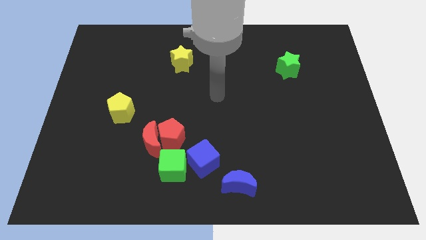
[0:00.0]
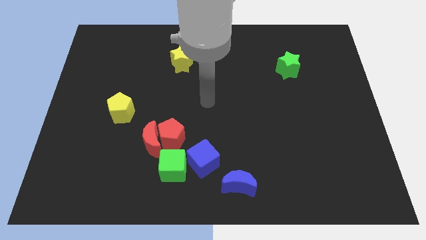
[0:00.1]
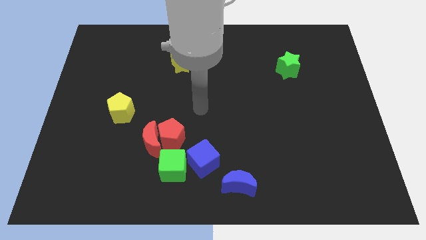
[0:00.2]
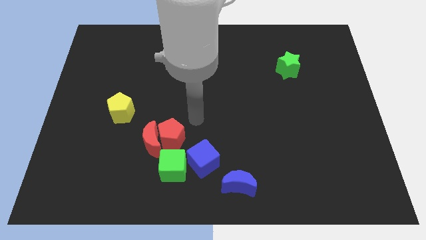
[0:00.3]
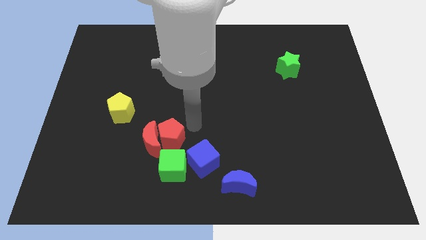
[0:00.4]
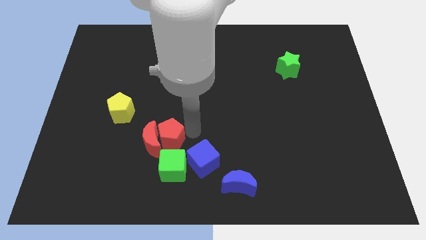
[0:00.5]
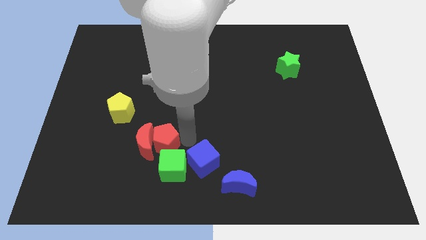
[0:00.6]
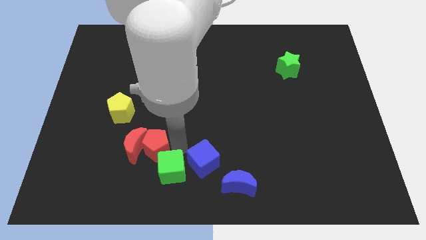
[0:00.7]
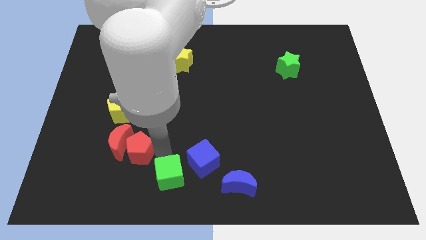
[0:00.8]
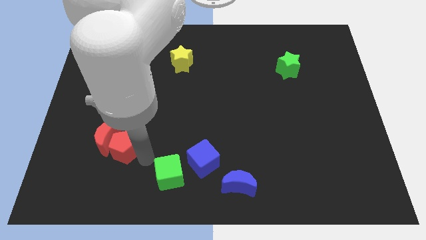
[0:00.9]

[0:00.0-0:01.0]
separate the red moon from the red pentagon and green cube

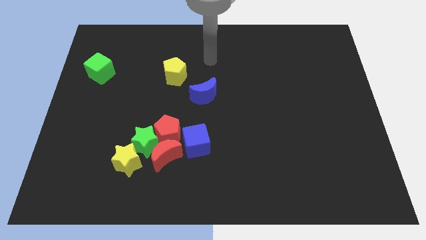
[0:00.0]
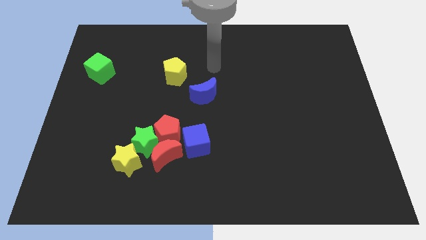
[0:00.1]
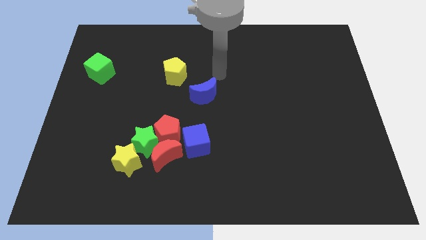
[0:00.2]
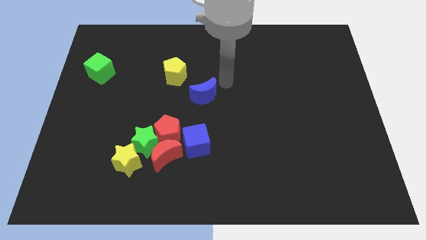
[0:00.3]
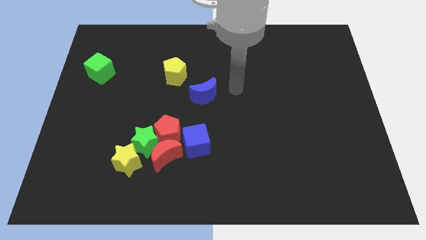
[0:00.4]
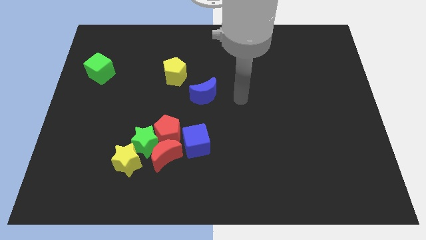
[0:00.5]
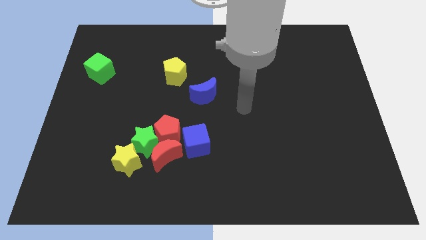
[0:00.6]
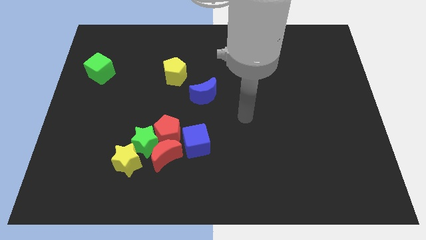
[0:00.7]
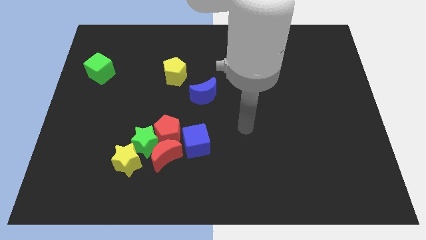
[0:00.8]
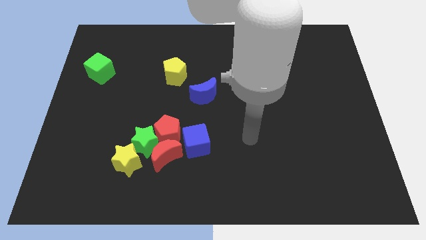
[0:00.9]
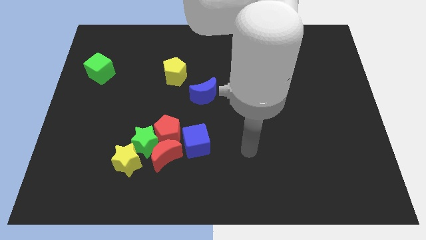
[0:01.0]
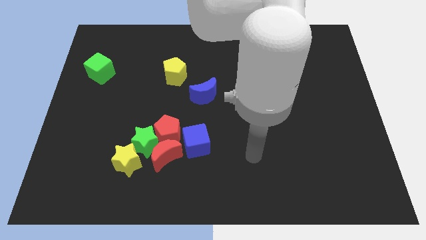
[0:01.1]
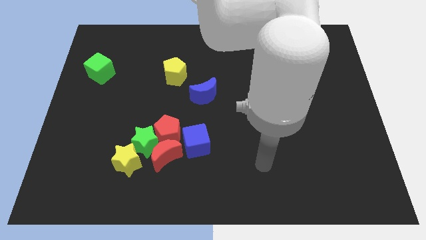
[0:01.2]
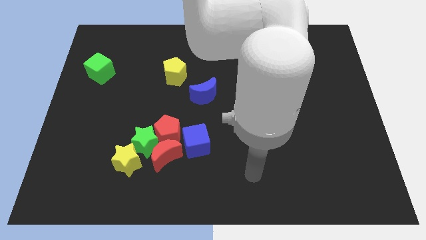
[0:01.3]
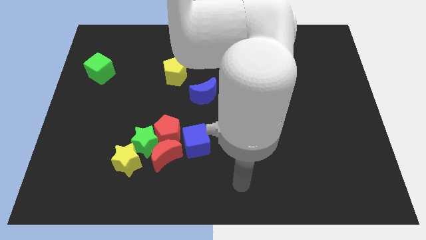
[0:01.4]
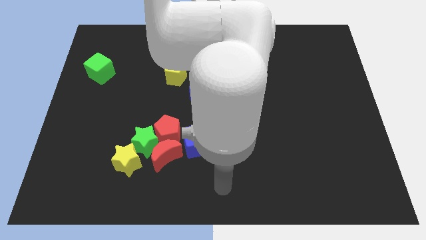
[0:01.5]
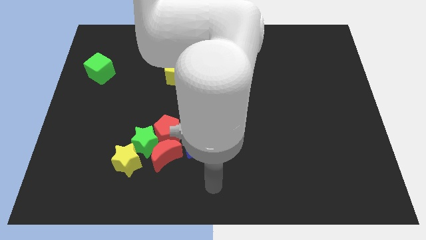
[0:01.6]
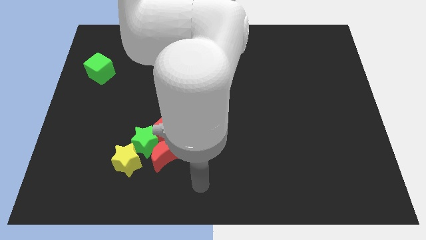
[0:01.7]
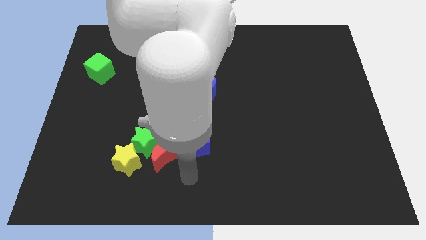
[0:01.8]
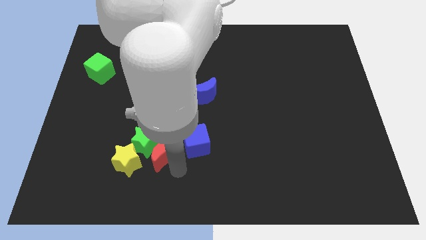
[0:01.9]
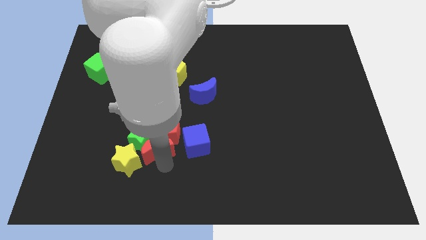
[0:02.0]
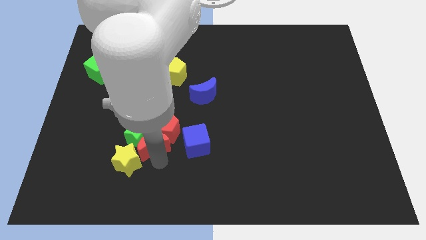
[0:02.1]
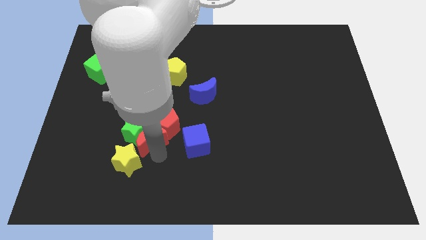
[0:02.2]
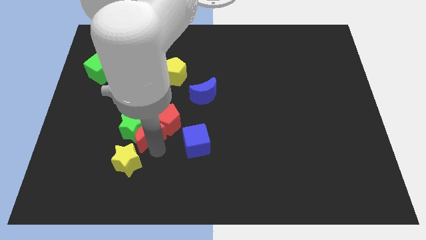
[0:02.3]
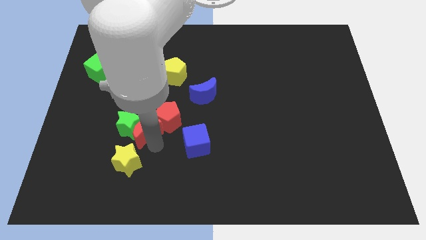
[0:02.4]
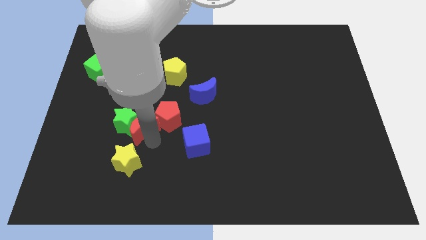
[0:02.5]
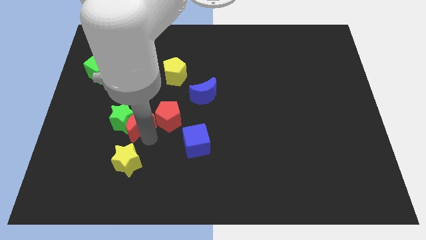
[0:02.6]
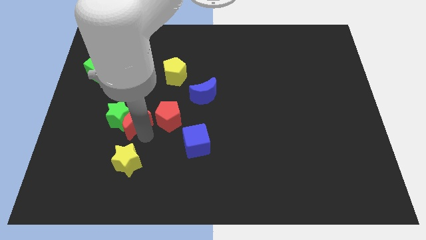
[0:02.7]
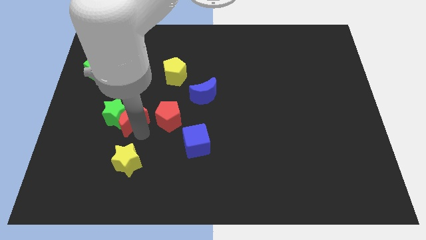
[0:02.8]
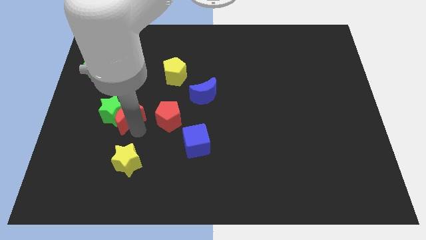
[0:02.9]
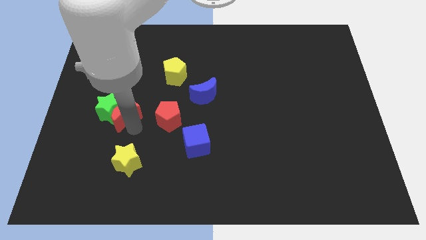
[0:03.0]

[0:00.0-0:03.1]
move the green star away from the red pentagon, red moon, and yellow star

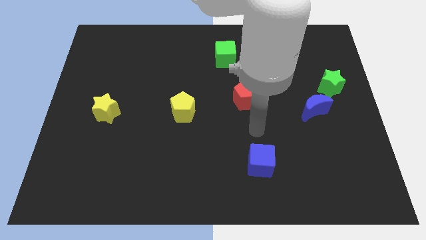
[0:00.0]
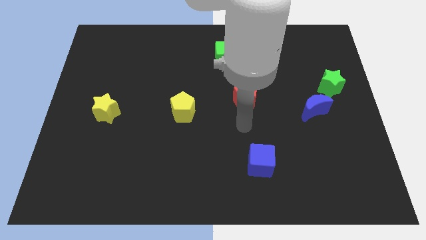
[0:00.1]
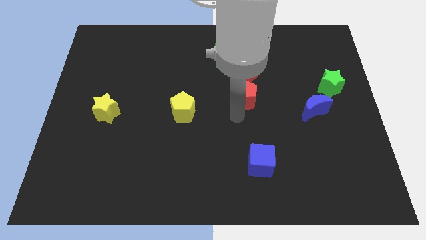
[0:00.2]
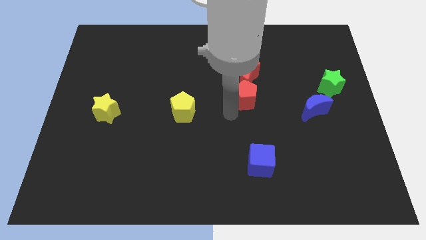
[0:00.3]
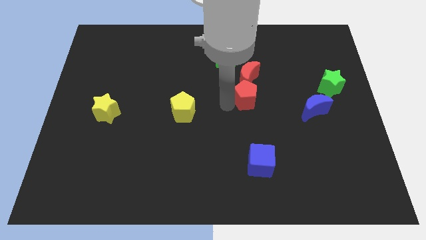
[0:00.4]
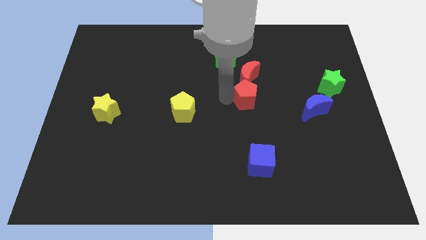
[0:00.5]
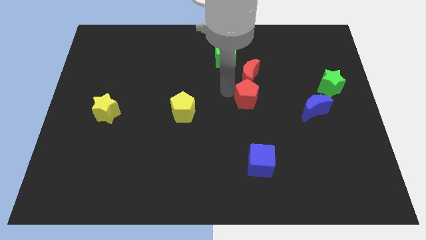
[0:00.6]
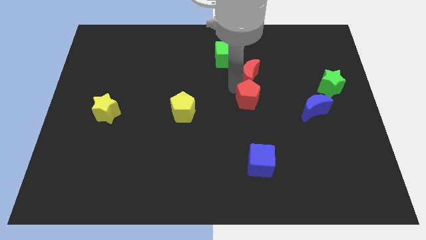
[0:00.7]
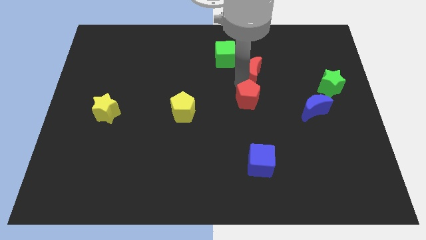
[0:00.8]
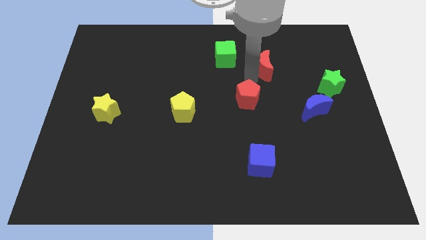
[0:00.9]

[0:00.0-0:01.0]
move the red pentagon away from the red moon

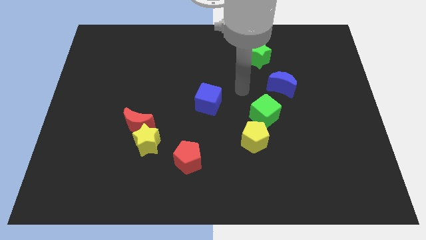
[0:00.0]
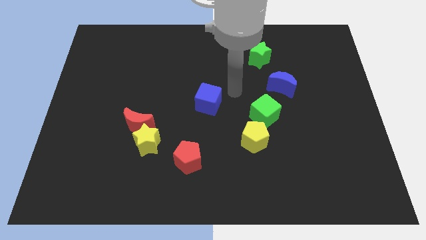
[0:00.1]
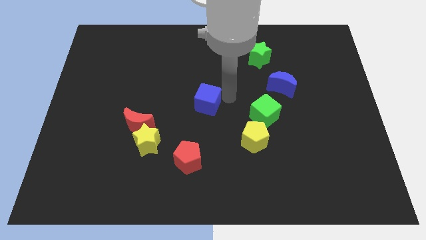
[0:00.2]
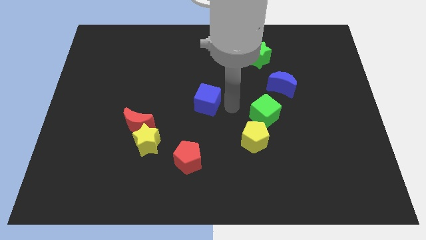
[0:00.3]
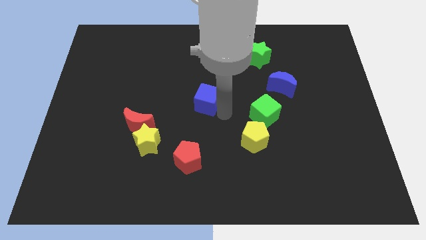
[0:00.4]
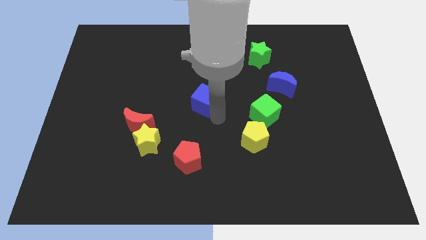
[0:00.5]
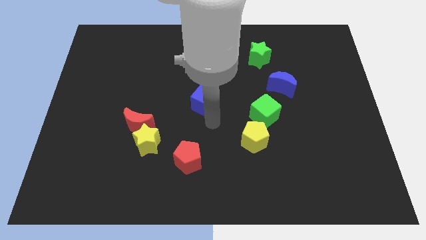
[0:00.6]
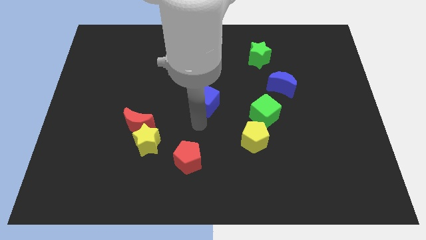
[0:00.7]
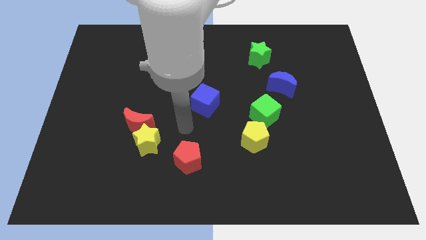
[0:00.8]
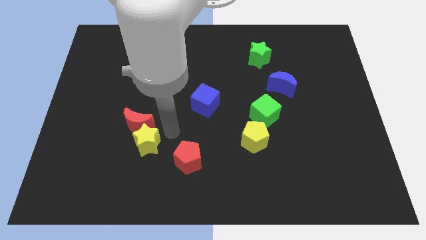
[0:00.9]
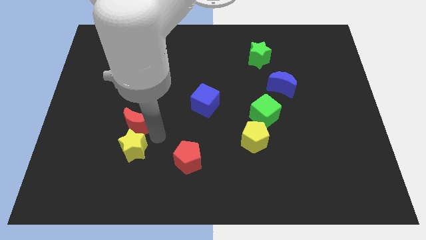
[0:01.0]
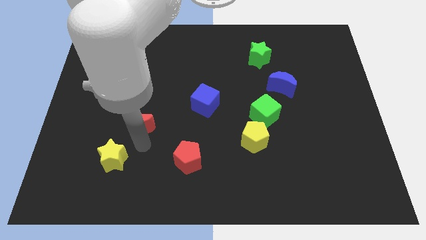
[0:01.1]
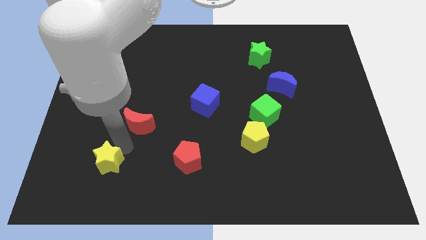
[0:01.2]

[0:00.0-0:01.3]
separate the red moon from the yellow star

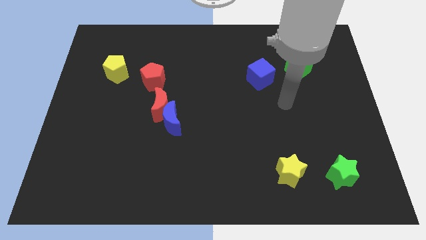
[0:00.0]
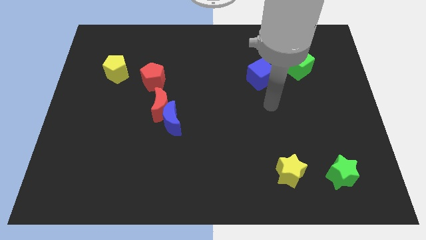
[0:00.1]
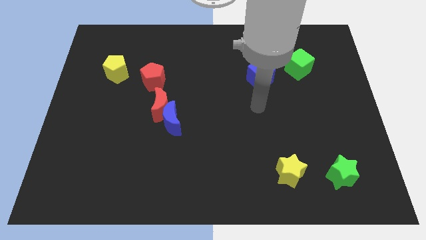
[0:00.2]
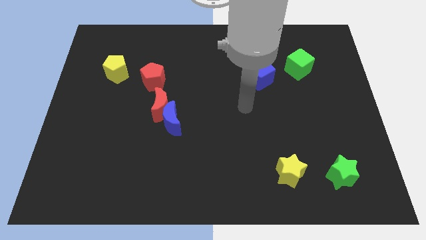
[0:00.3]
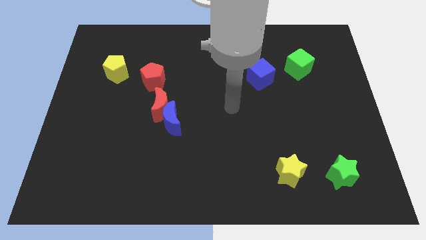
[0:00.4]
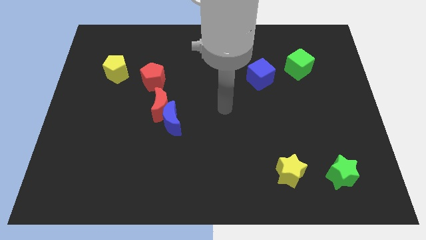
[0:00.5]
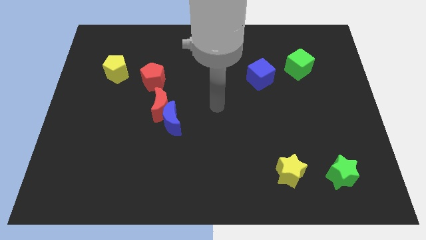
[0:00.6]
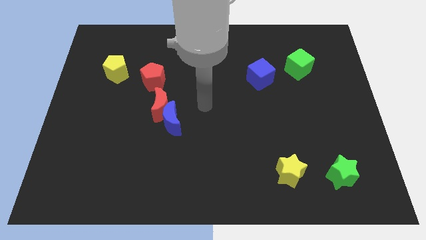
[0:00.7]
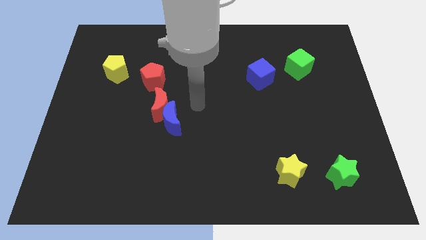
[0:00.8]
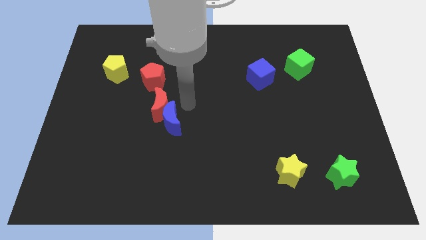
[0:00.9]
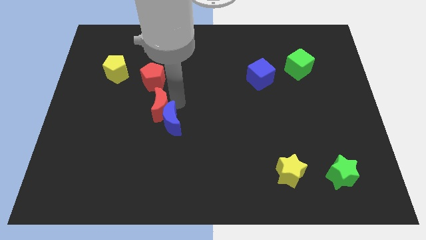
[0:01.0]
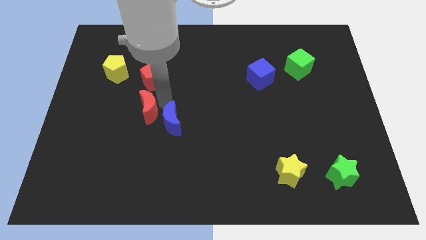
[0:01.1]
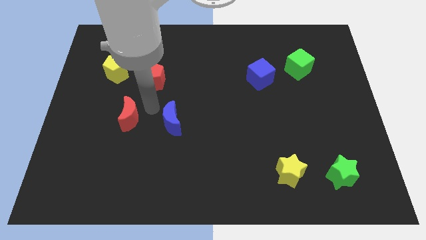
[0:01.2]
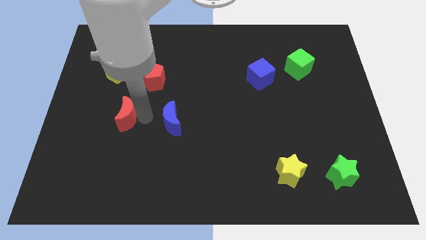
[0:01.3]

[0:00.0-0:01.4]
pull the blue moon apart from the red moon

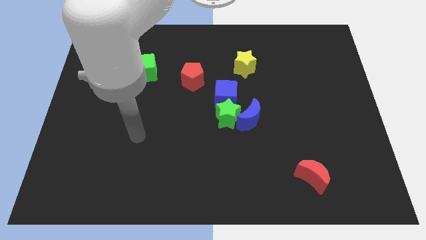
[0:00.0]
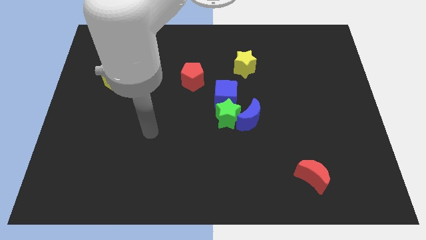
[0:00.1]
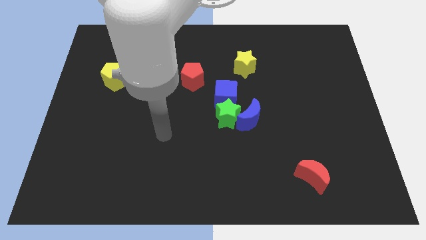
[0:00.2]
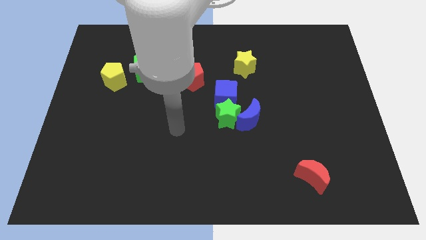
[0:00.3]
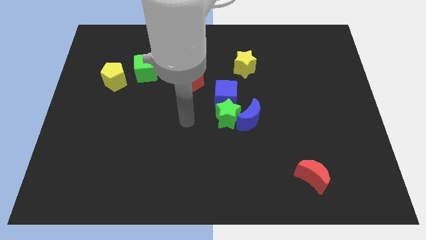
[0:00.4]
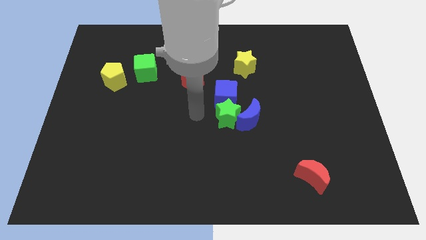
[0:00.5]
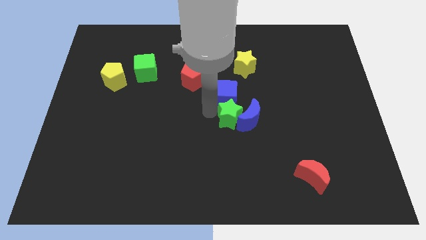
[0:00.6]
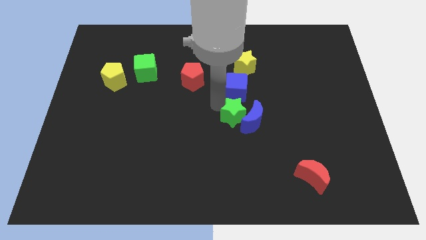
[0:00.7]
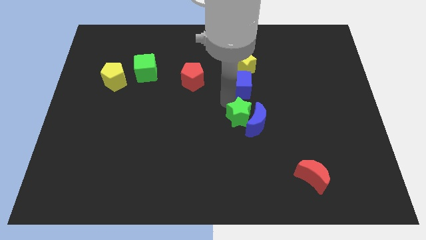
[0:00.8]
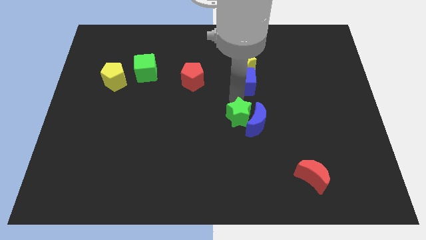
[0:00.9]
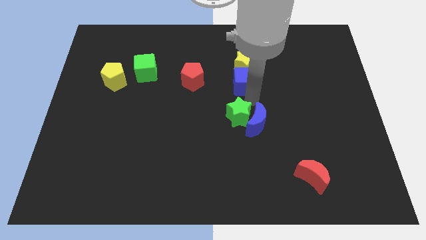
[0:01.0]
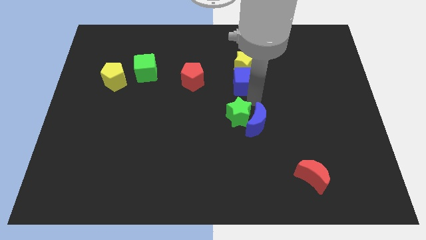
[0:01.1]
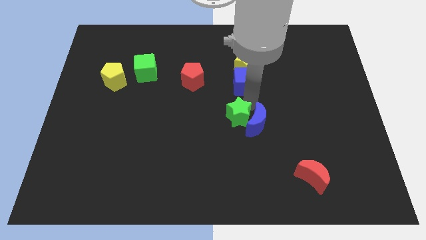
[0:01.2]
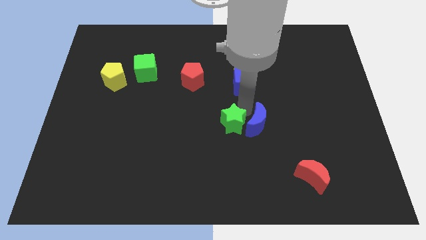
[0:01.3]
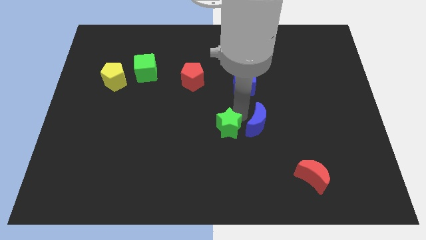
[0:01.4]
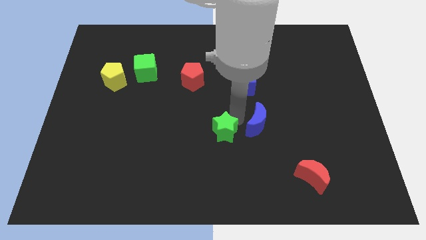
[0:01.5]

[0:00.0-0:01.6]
move the green star away from the blue moon and blue cube

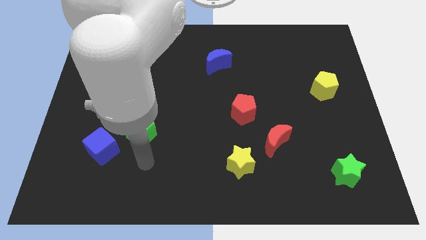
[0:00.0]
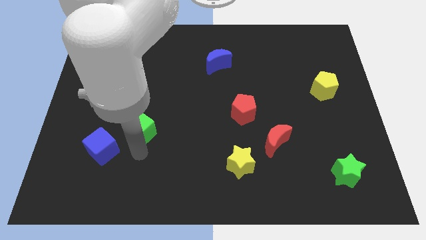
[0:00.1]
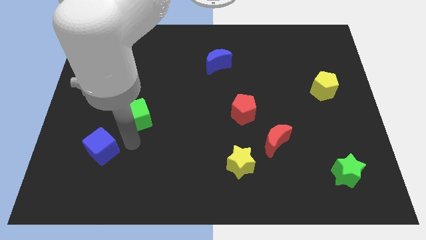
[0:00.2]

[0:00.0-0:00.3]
pull the blue cube apart from the green cube
